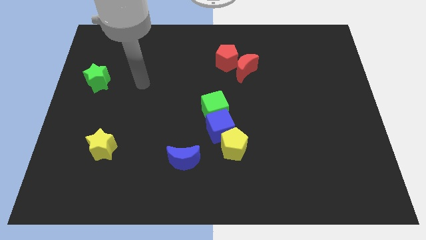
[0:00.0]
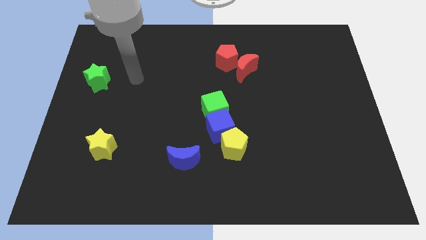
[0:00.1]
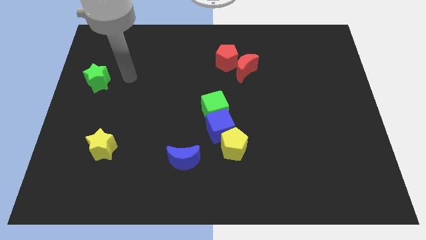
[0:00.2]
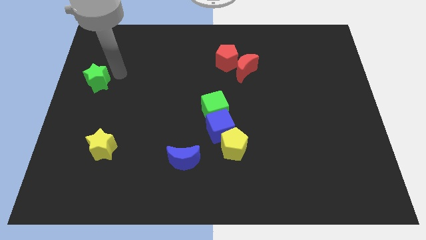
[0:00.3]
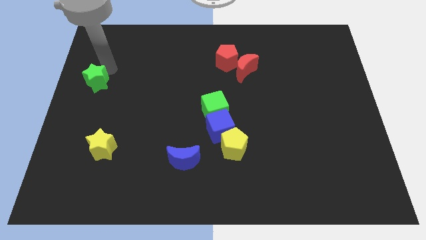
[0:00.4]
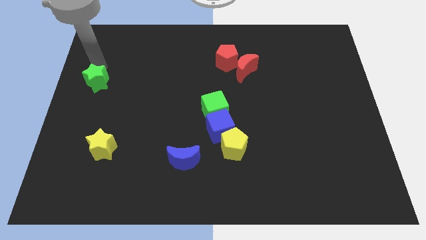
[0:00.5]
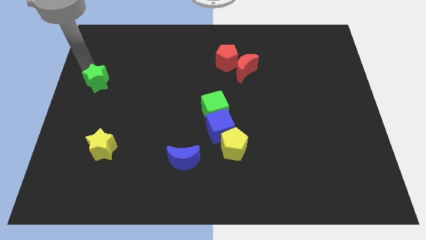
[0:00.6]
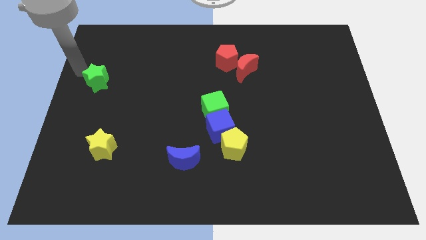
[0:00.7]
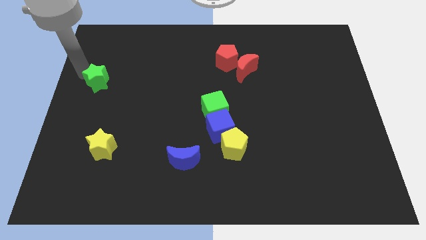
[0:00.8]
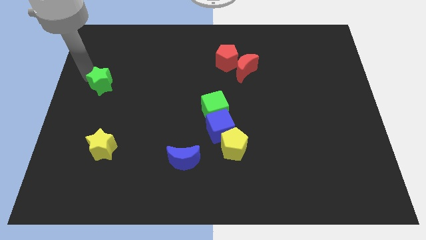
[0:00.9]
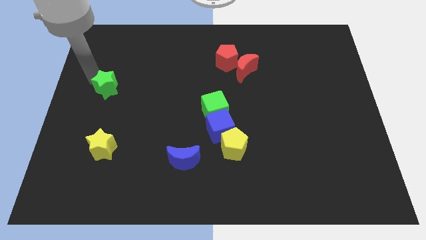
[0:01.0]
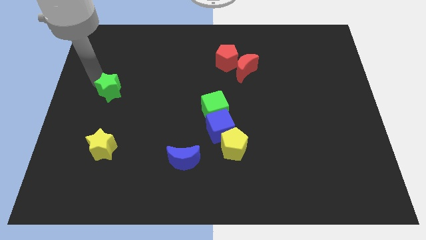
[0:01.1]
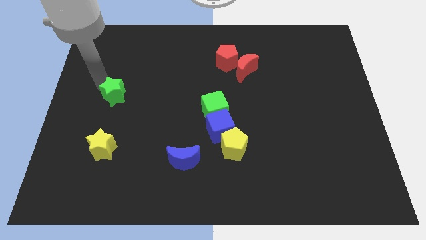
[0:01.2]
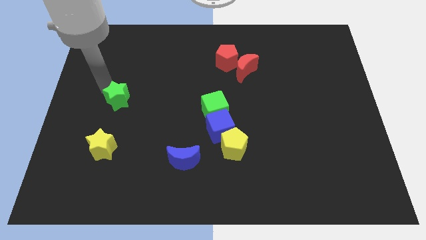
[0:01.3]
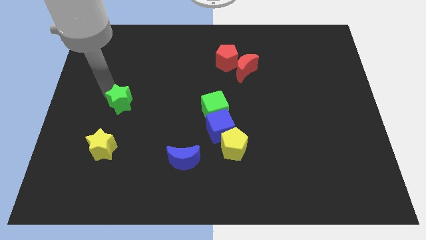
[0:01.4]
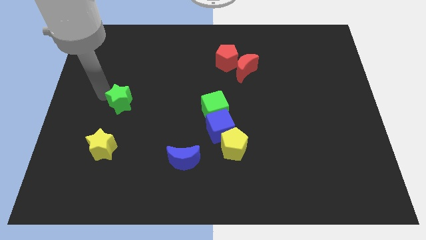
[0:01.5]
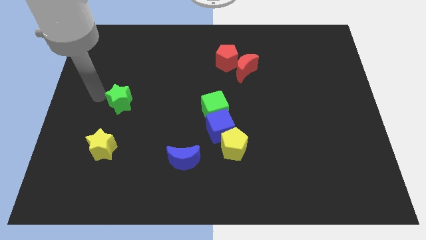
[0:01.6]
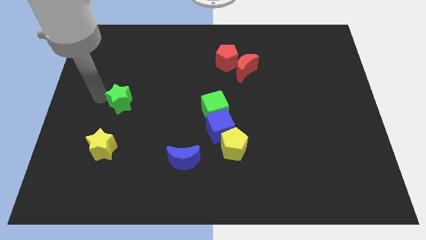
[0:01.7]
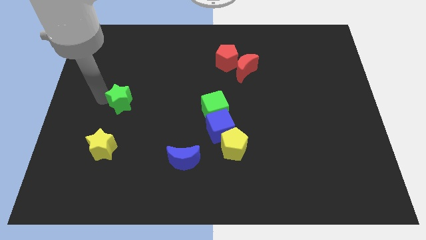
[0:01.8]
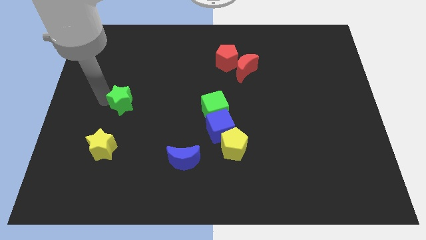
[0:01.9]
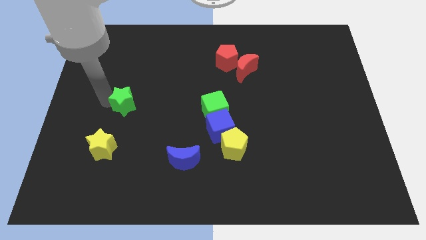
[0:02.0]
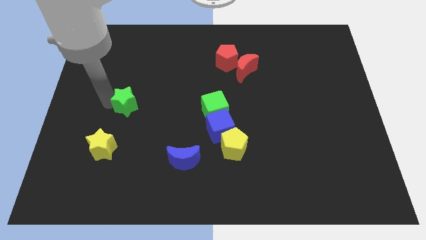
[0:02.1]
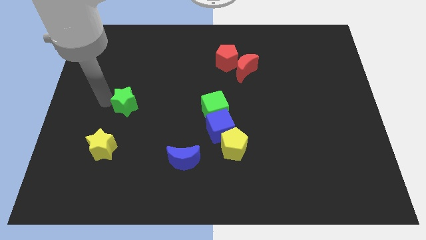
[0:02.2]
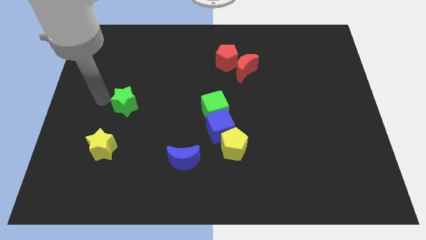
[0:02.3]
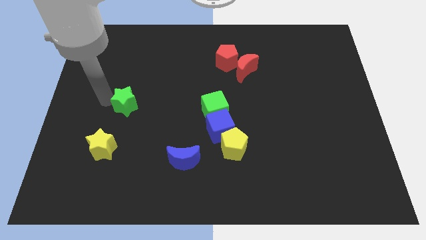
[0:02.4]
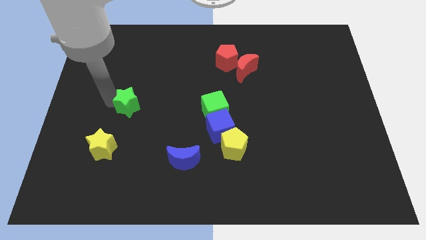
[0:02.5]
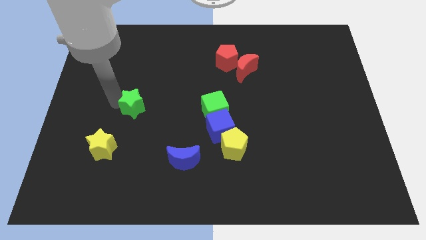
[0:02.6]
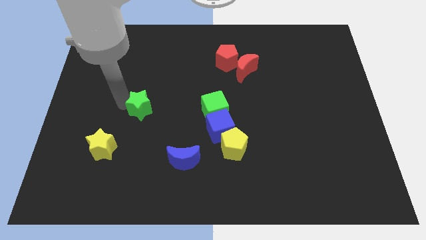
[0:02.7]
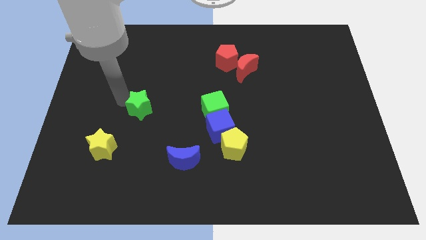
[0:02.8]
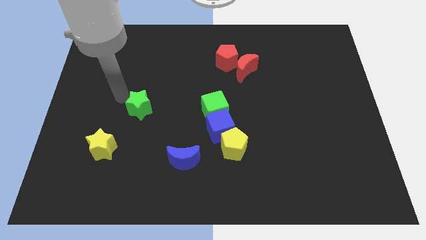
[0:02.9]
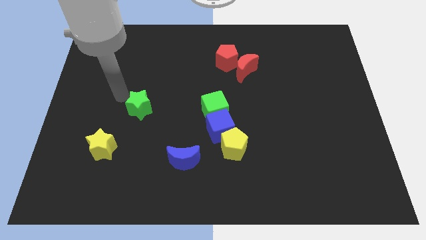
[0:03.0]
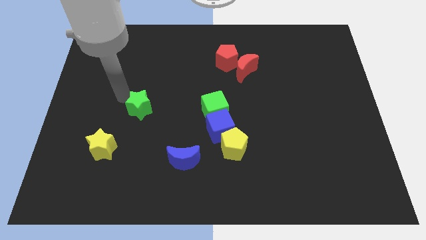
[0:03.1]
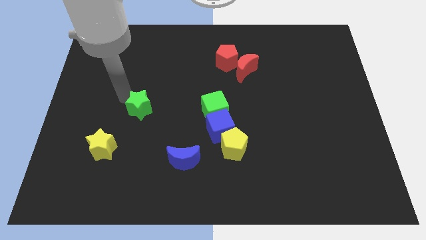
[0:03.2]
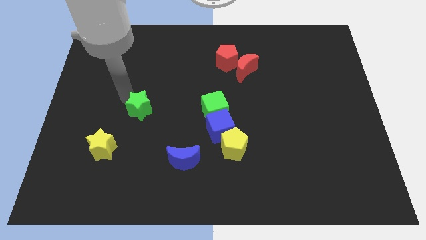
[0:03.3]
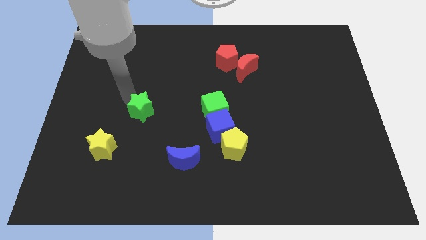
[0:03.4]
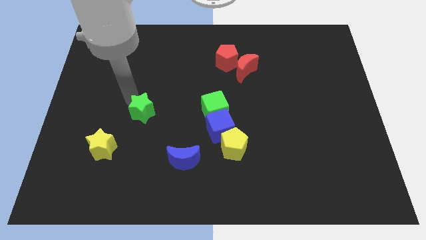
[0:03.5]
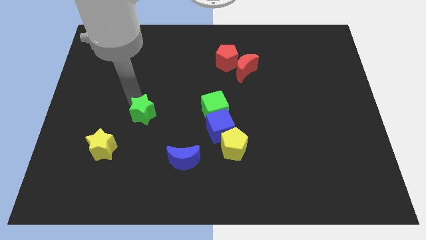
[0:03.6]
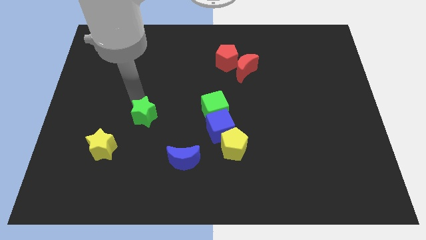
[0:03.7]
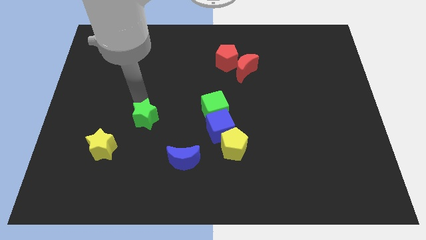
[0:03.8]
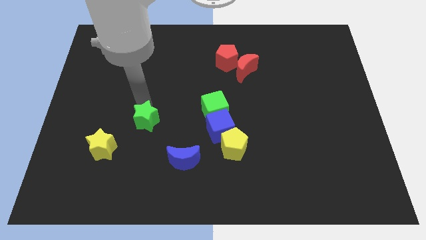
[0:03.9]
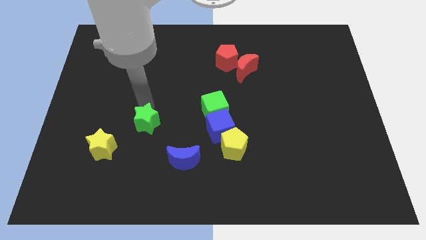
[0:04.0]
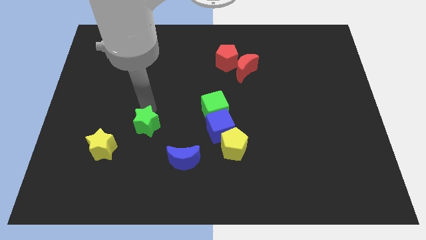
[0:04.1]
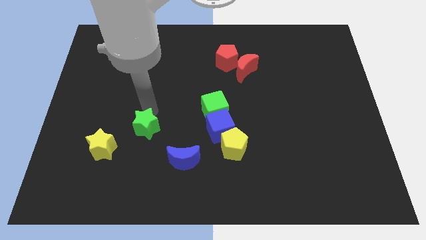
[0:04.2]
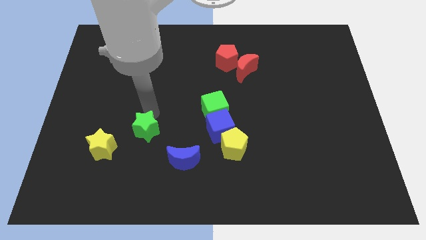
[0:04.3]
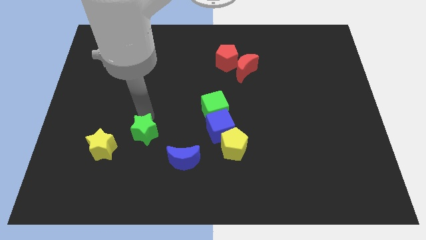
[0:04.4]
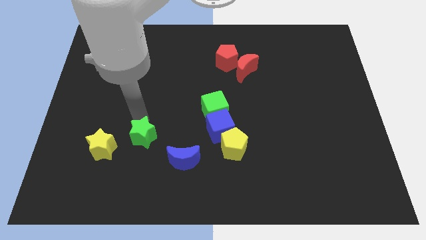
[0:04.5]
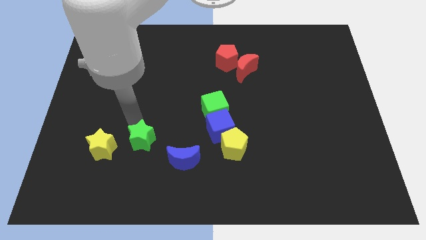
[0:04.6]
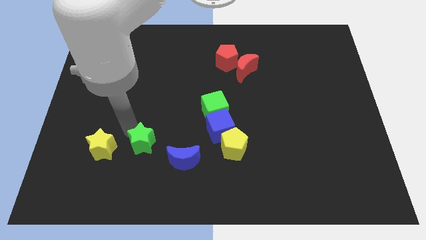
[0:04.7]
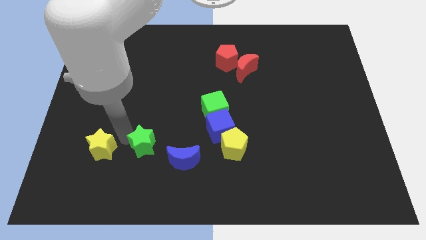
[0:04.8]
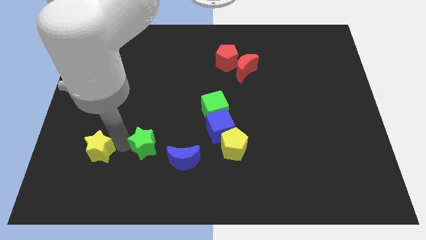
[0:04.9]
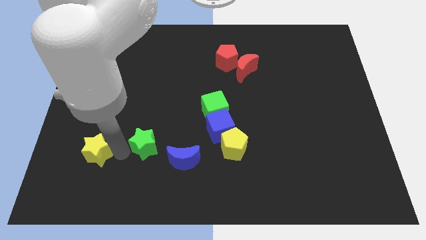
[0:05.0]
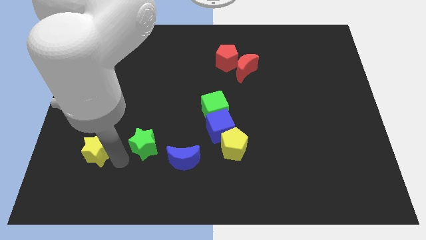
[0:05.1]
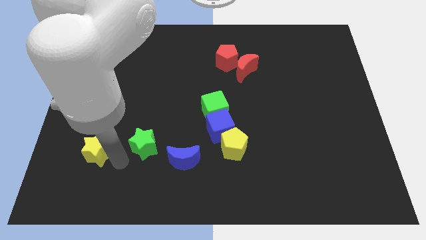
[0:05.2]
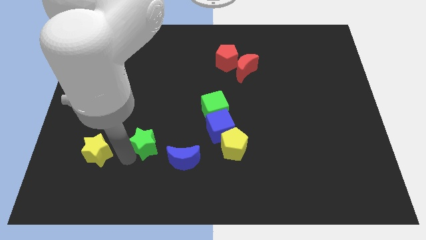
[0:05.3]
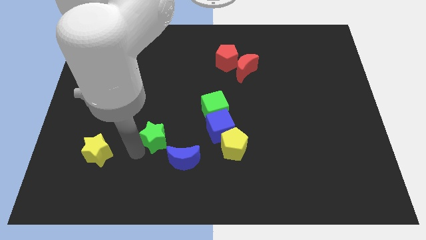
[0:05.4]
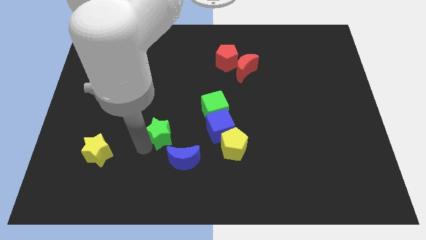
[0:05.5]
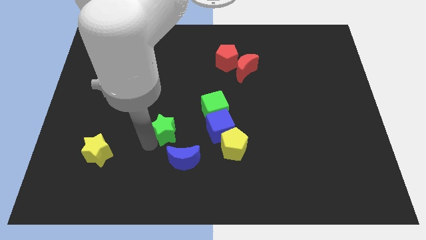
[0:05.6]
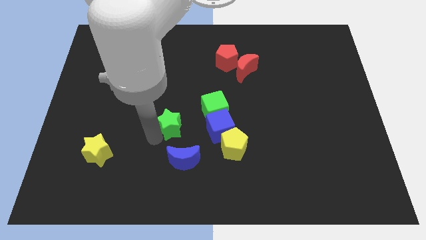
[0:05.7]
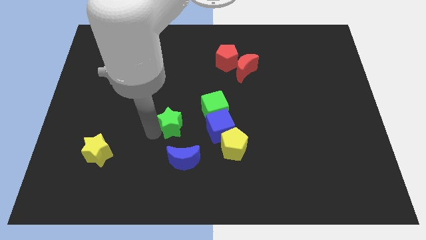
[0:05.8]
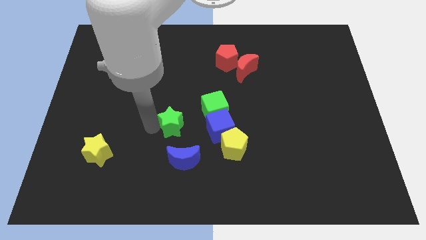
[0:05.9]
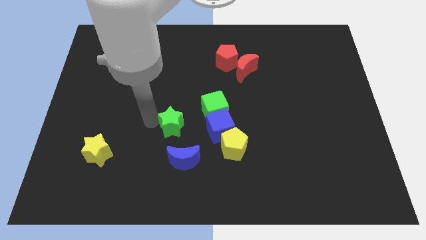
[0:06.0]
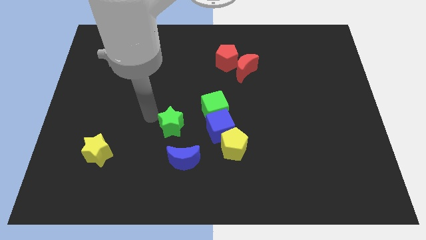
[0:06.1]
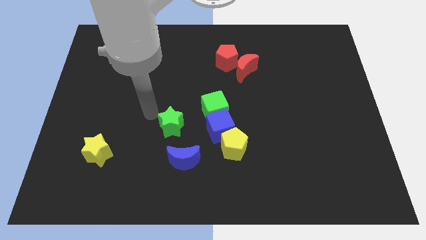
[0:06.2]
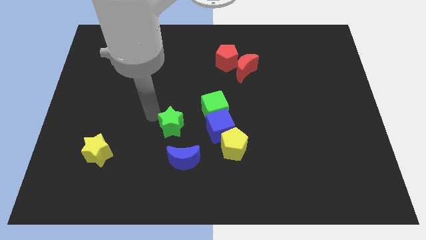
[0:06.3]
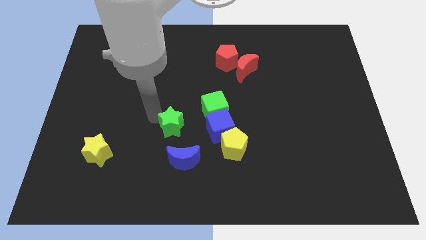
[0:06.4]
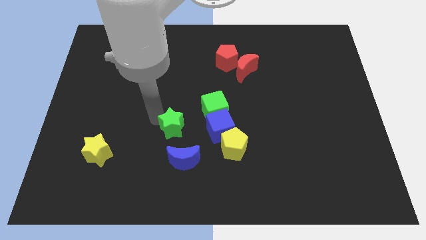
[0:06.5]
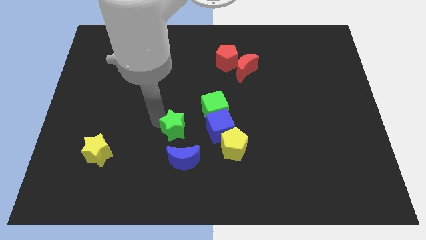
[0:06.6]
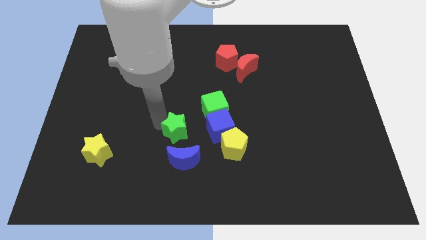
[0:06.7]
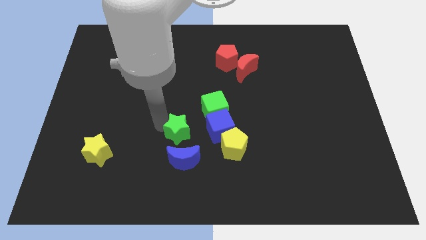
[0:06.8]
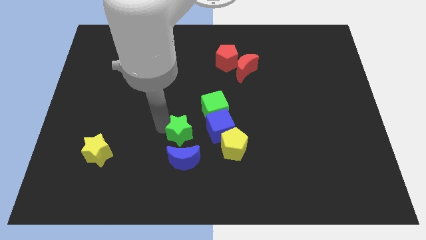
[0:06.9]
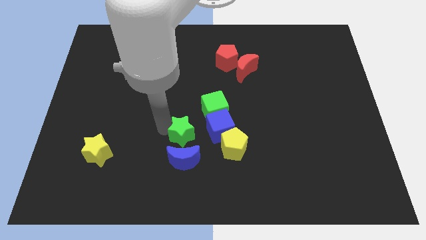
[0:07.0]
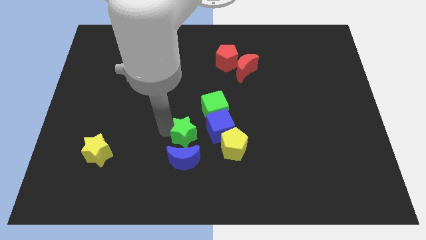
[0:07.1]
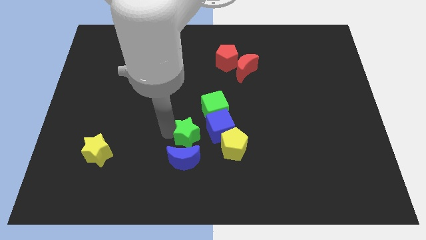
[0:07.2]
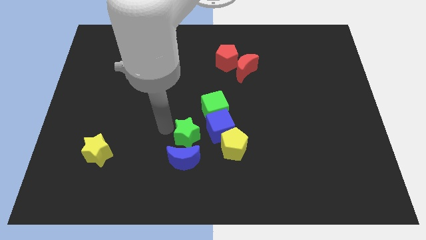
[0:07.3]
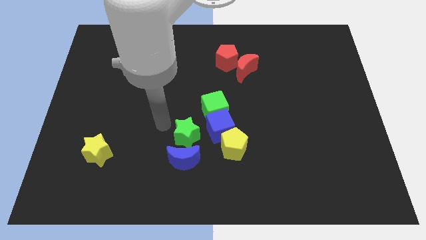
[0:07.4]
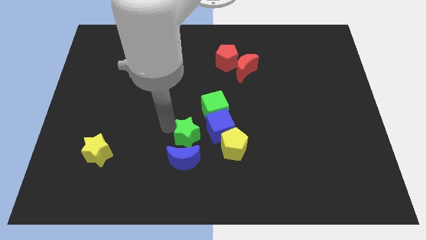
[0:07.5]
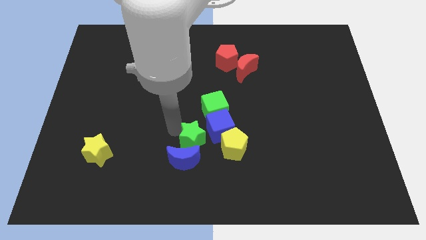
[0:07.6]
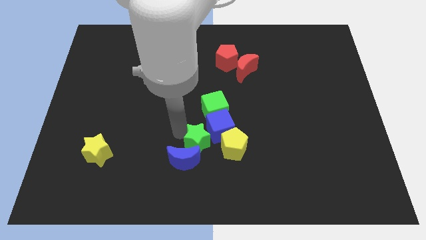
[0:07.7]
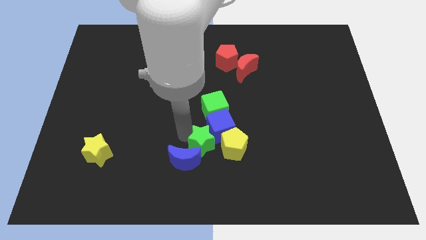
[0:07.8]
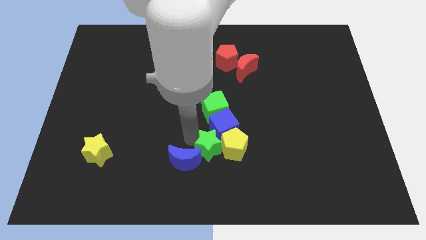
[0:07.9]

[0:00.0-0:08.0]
push the green star next to the yellow pentagon
